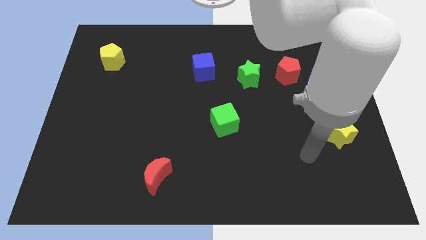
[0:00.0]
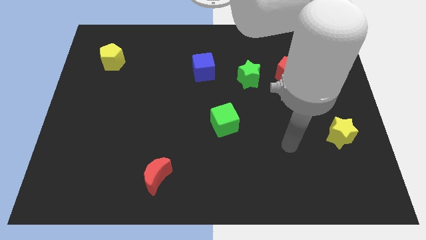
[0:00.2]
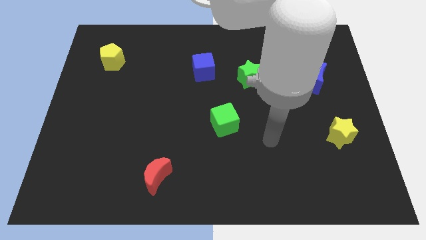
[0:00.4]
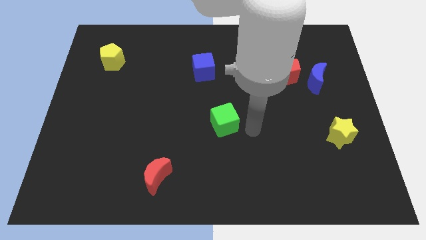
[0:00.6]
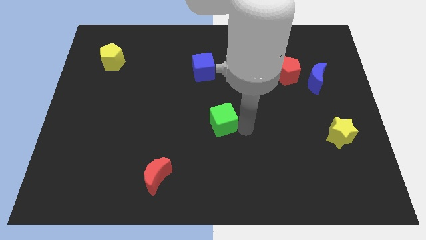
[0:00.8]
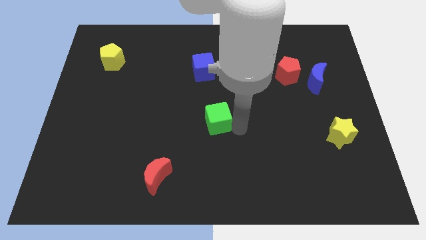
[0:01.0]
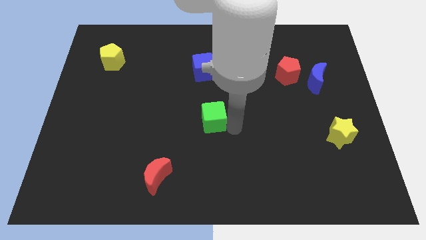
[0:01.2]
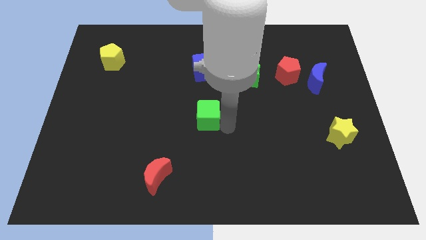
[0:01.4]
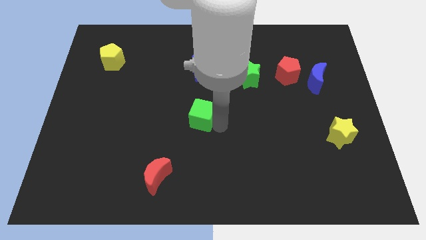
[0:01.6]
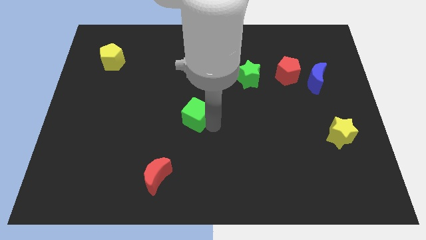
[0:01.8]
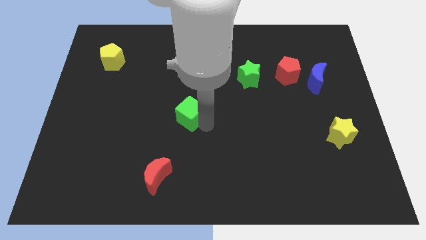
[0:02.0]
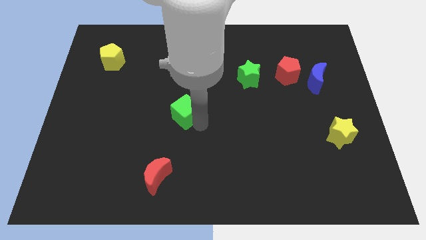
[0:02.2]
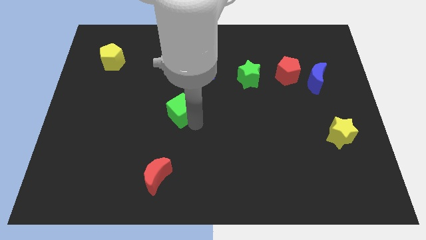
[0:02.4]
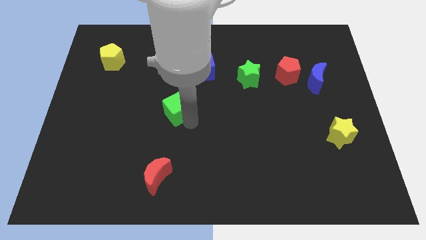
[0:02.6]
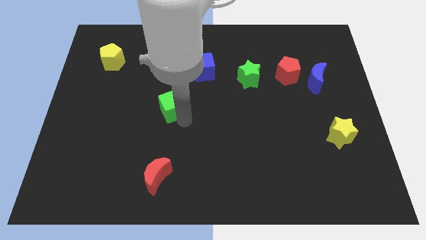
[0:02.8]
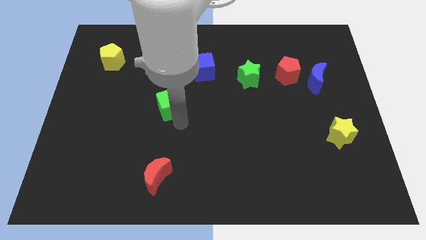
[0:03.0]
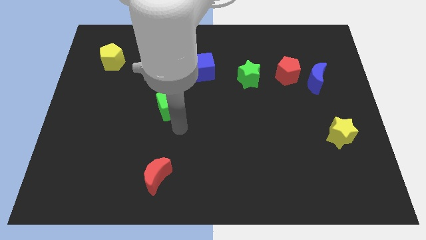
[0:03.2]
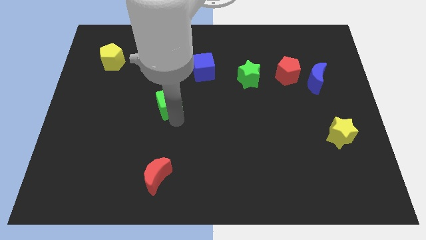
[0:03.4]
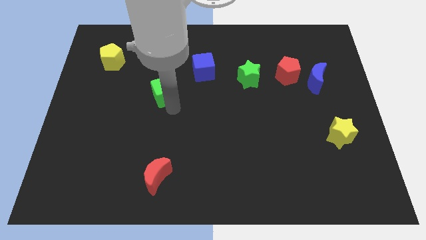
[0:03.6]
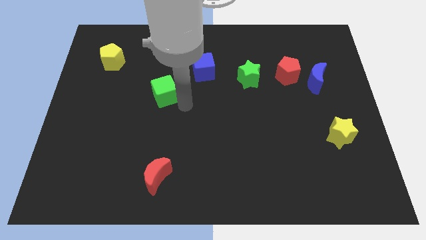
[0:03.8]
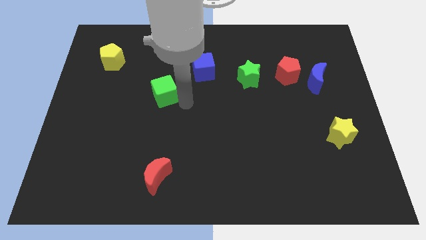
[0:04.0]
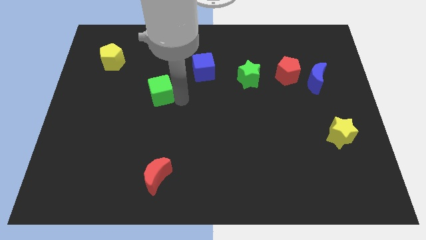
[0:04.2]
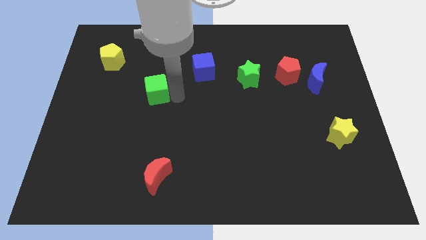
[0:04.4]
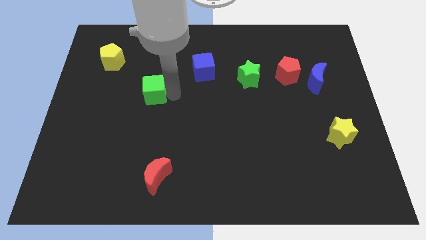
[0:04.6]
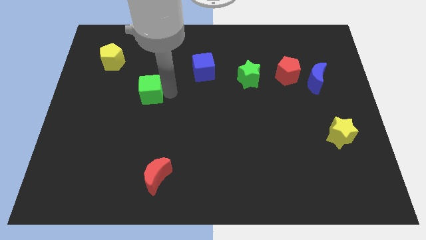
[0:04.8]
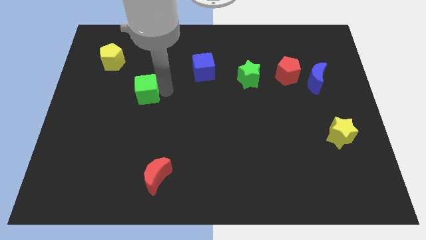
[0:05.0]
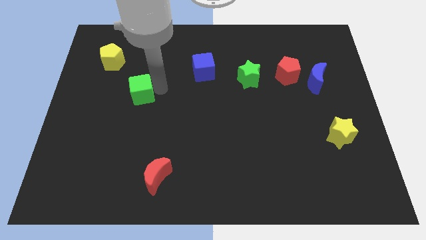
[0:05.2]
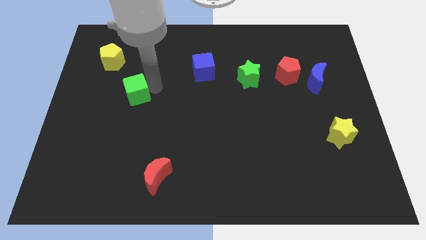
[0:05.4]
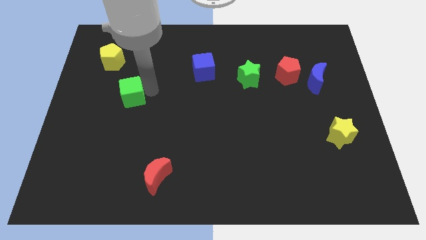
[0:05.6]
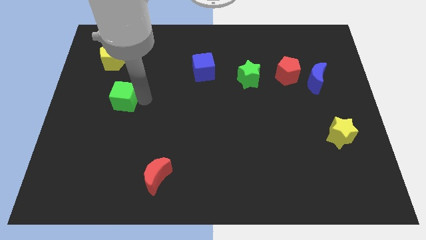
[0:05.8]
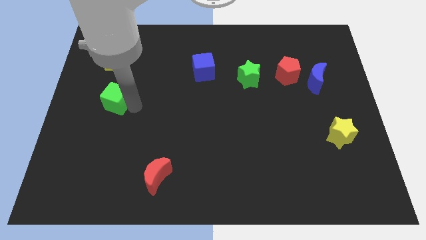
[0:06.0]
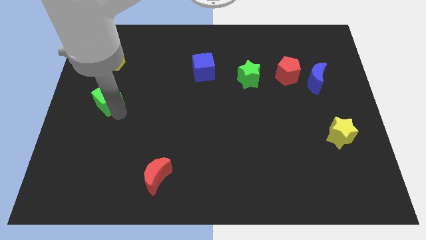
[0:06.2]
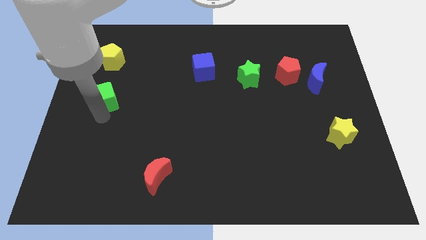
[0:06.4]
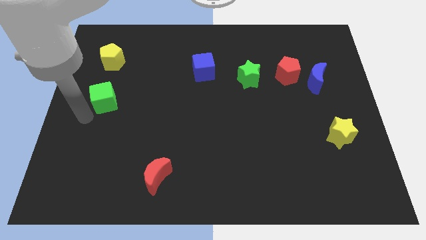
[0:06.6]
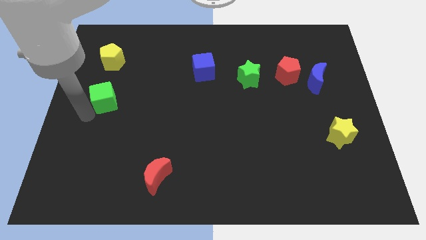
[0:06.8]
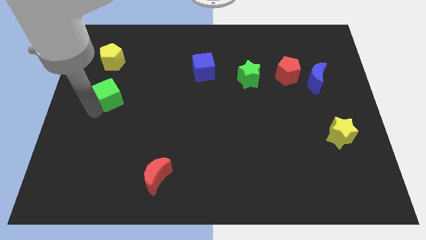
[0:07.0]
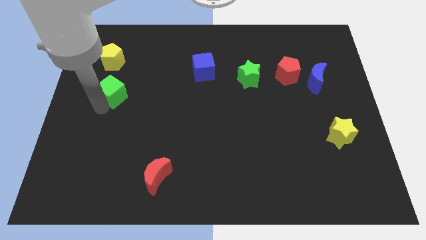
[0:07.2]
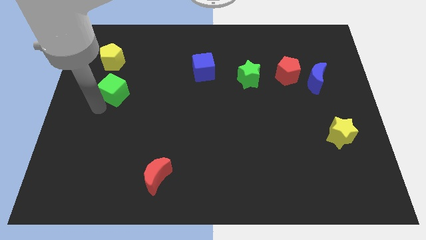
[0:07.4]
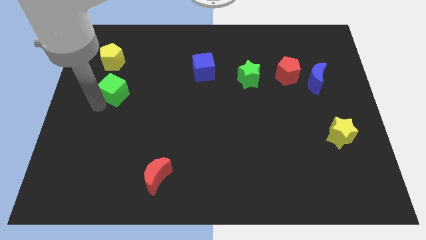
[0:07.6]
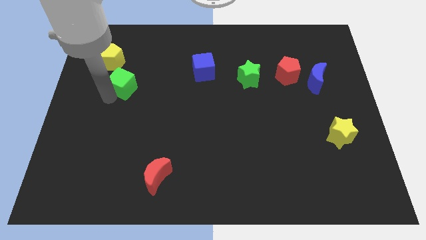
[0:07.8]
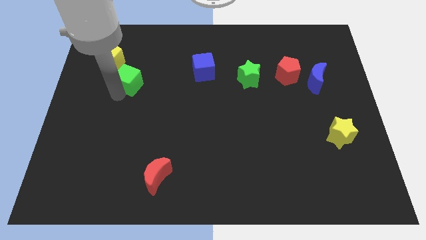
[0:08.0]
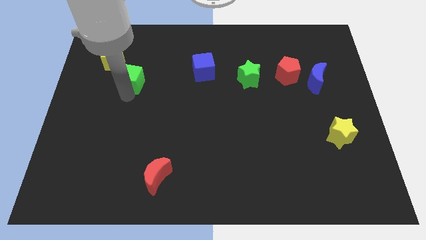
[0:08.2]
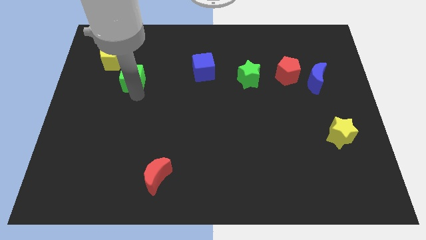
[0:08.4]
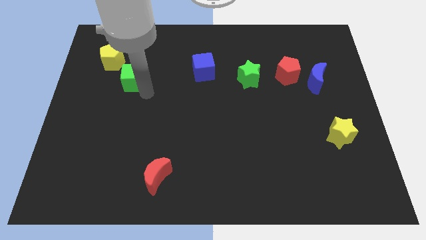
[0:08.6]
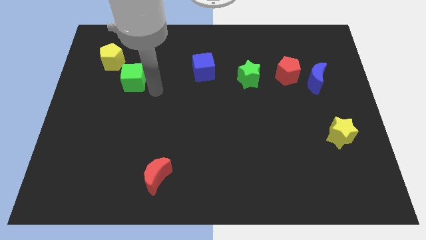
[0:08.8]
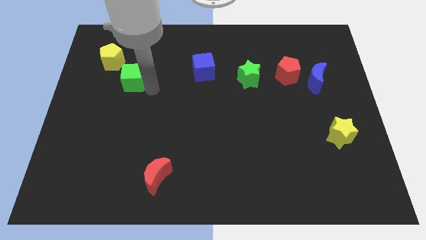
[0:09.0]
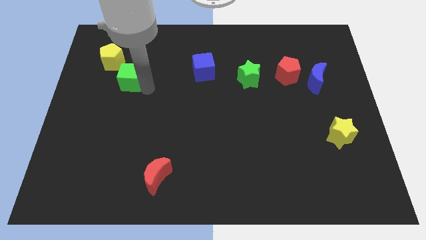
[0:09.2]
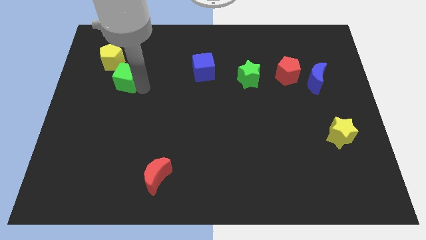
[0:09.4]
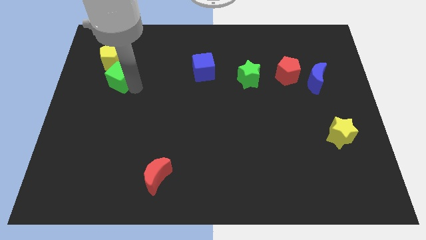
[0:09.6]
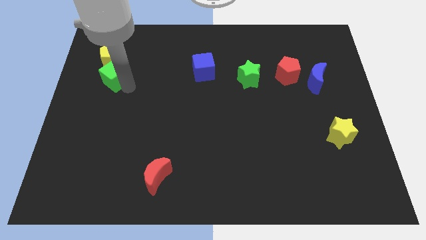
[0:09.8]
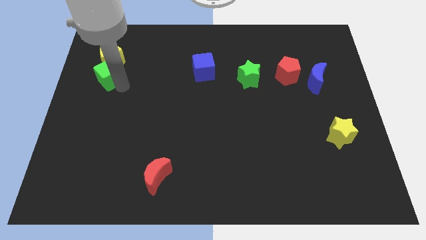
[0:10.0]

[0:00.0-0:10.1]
move the green cube to the yellow pentagon

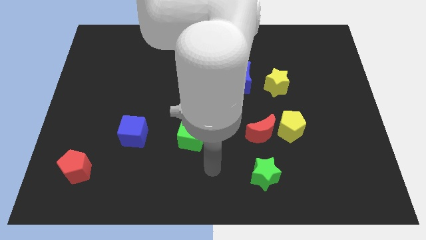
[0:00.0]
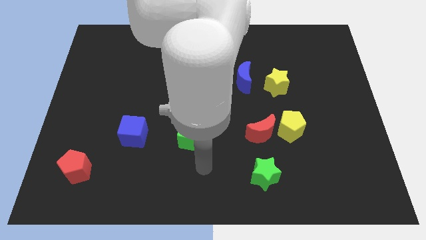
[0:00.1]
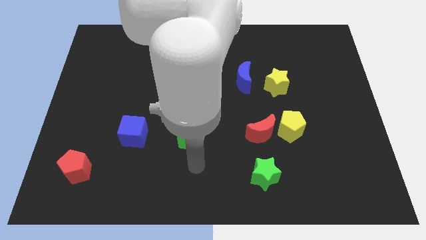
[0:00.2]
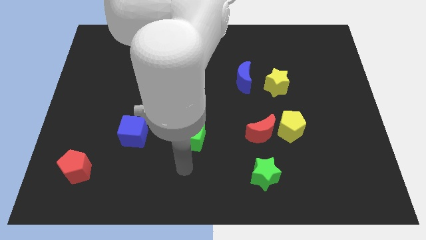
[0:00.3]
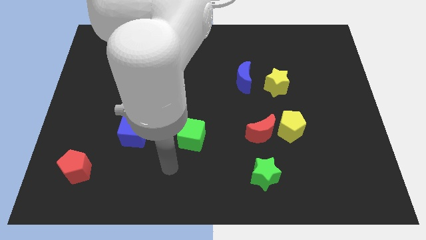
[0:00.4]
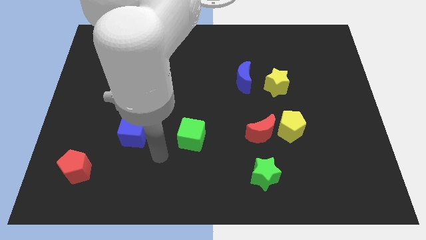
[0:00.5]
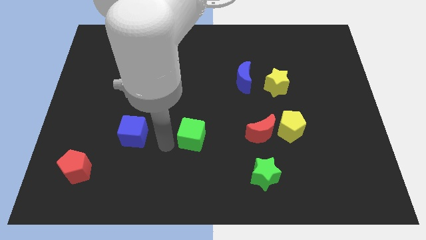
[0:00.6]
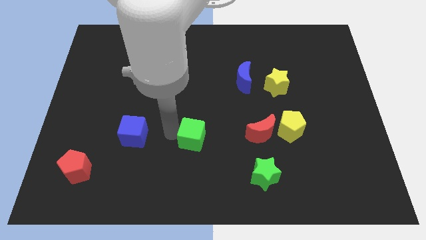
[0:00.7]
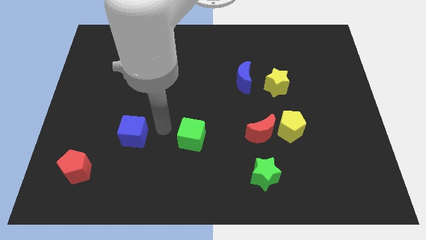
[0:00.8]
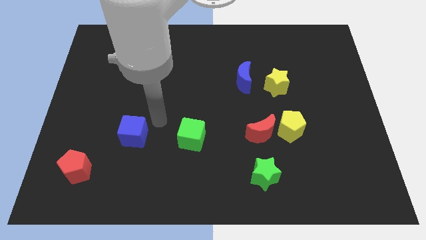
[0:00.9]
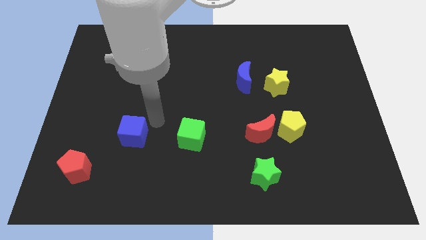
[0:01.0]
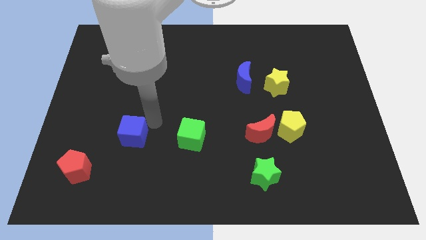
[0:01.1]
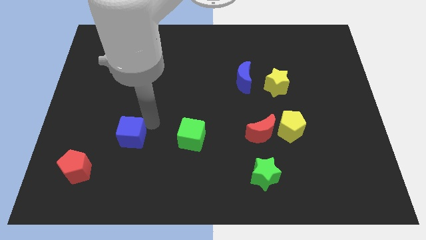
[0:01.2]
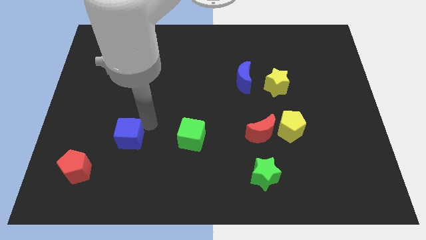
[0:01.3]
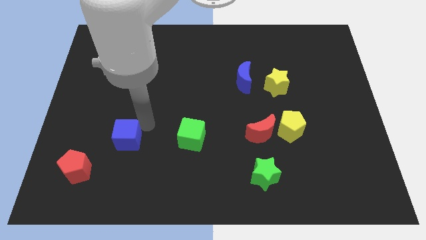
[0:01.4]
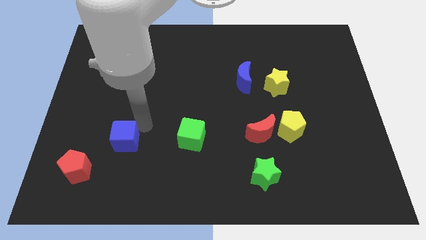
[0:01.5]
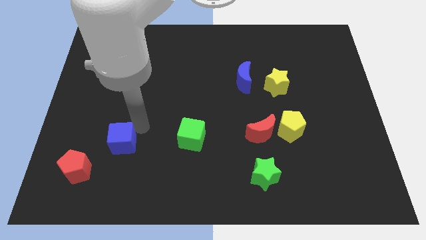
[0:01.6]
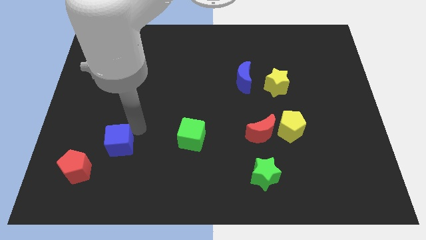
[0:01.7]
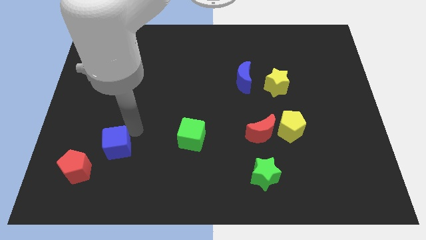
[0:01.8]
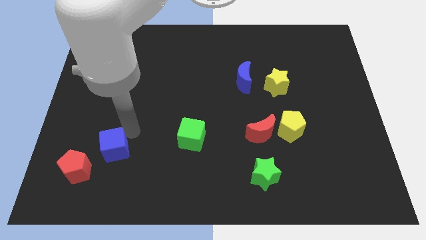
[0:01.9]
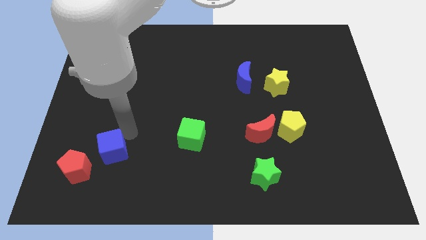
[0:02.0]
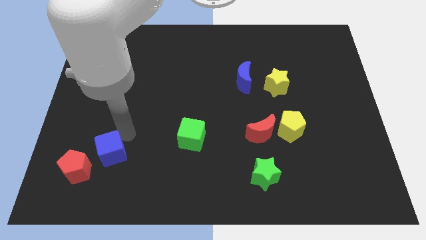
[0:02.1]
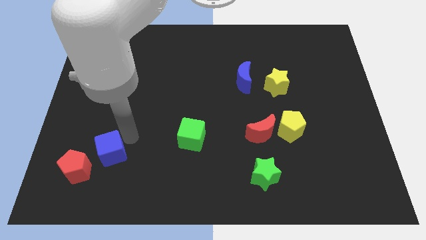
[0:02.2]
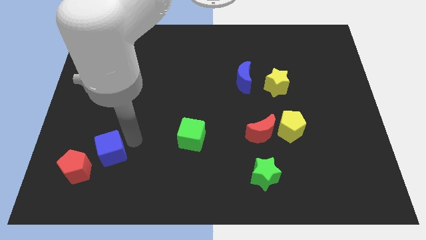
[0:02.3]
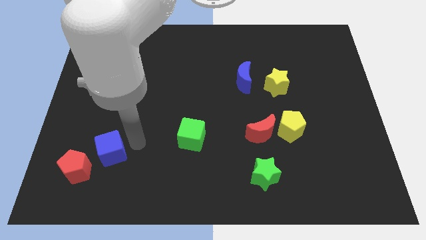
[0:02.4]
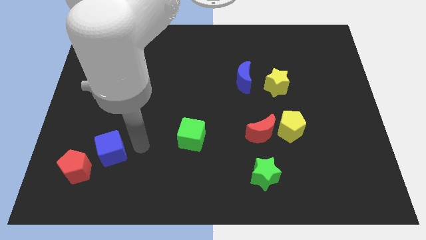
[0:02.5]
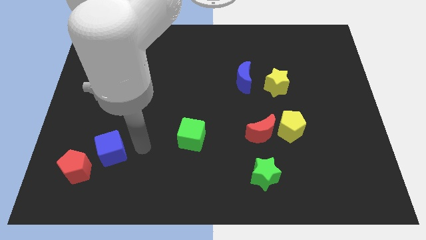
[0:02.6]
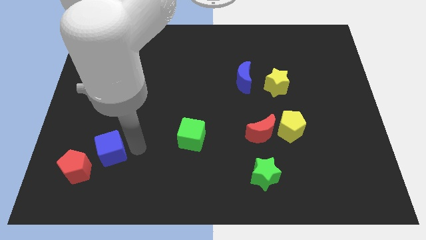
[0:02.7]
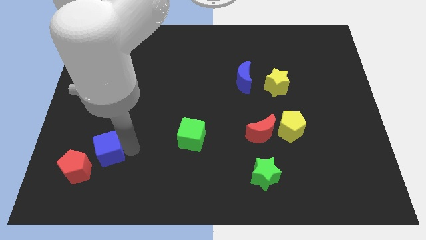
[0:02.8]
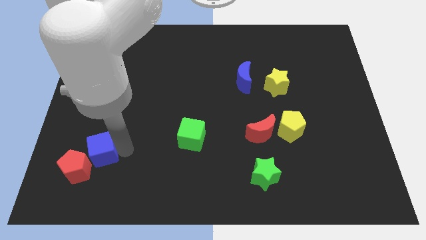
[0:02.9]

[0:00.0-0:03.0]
slide the blue cube close to the red pentagon
